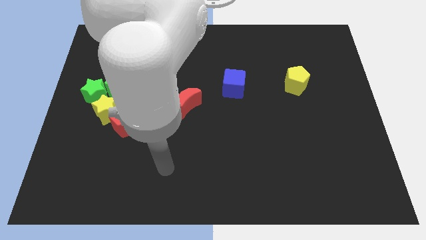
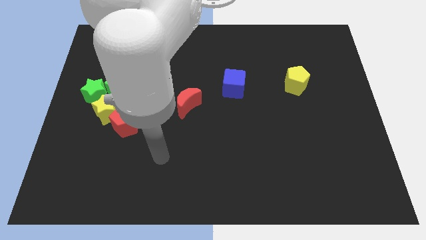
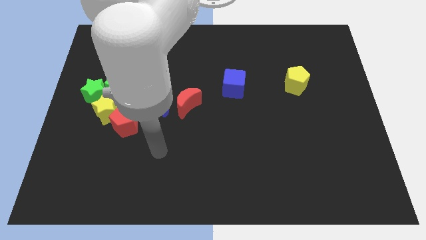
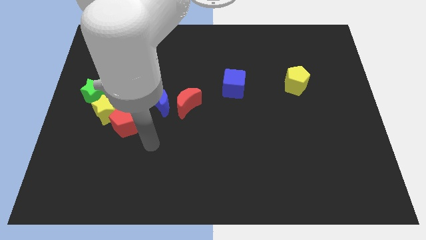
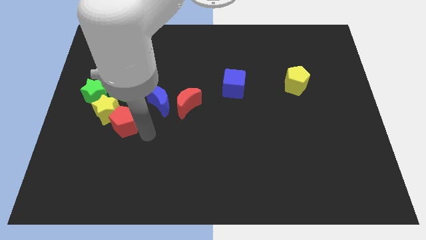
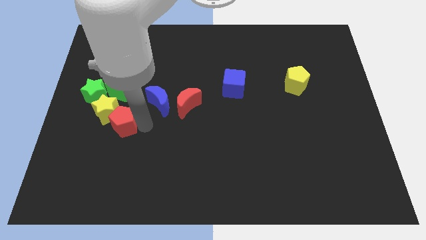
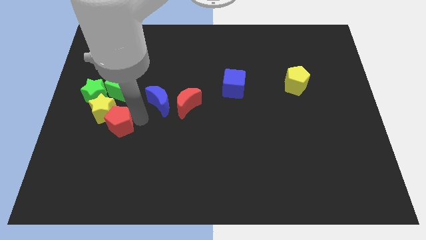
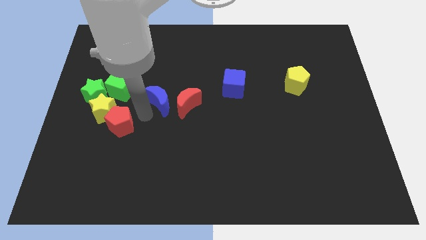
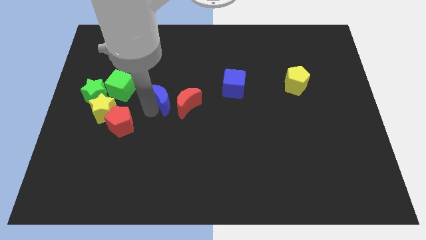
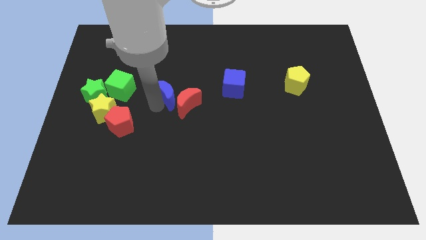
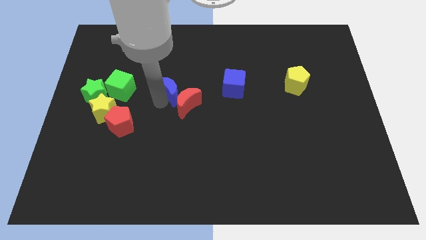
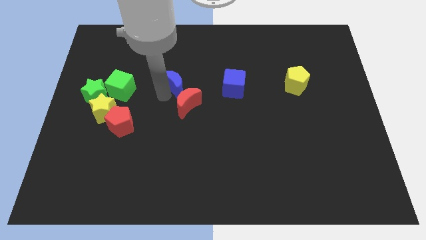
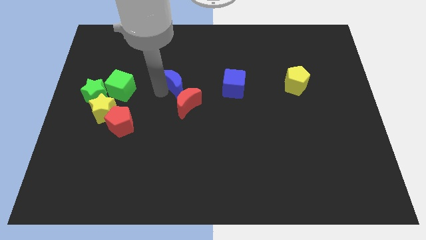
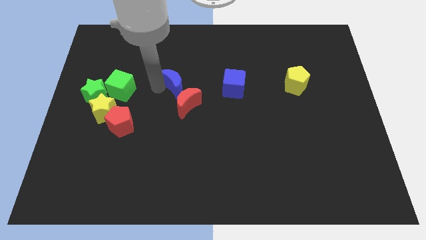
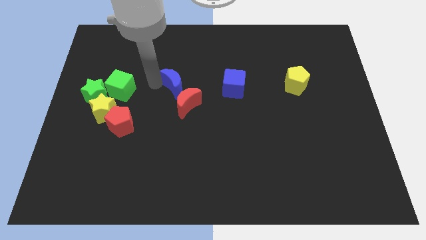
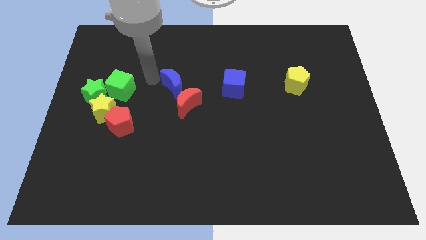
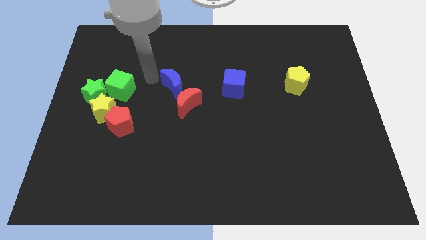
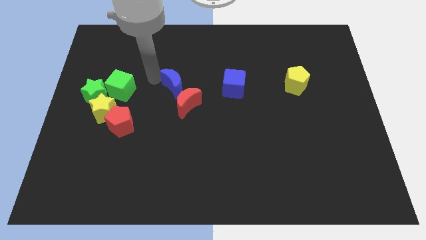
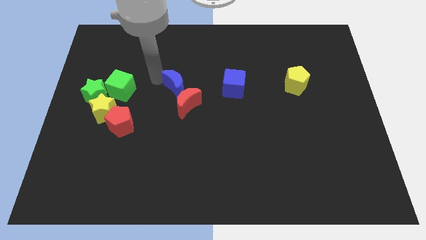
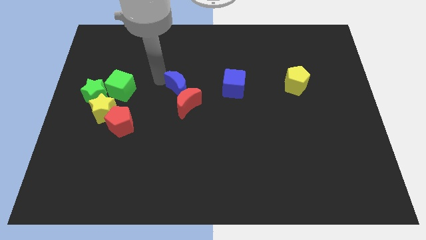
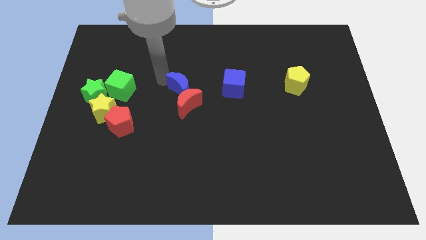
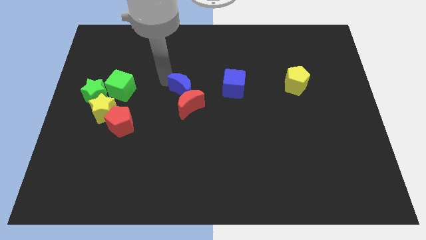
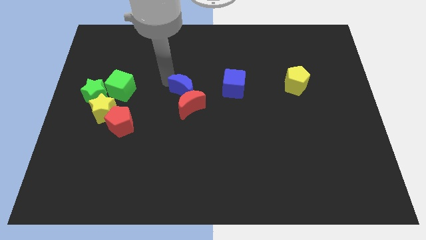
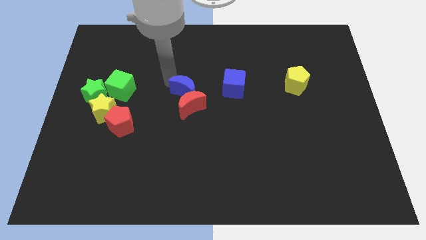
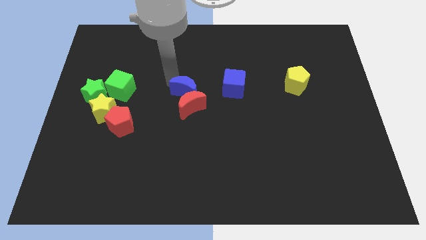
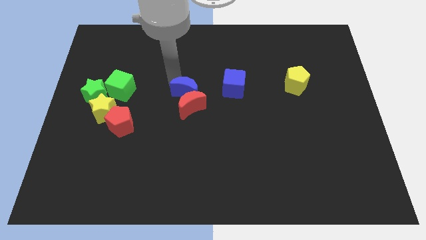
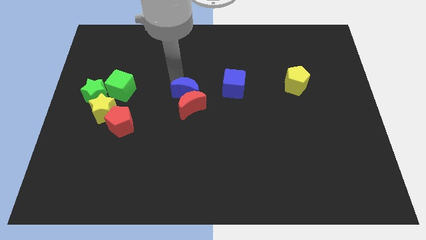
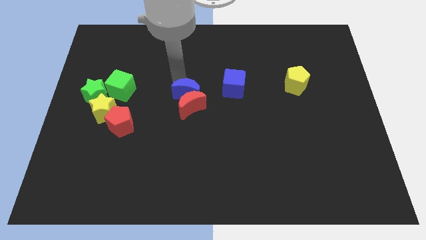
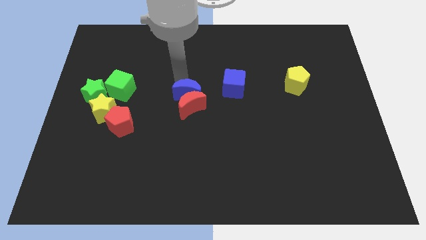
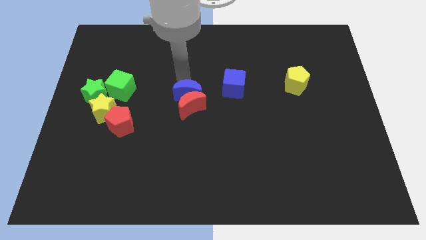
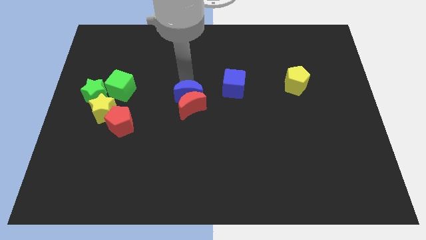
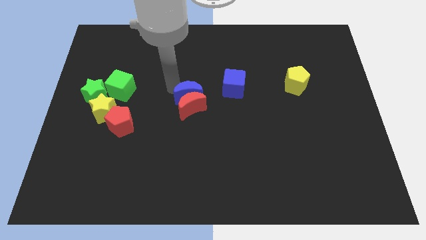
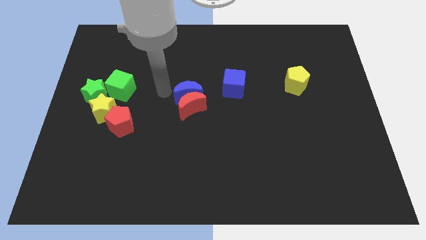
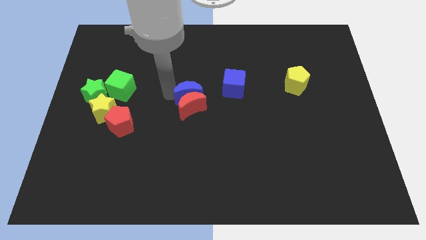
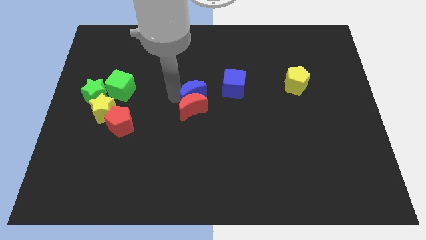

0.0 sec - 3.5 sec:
push the blue moon right a bit

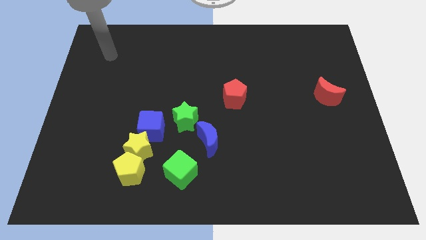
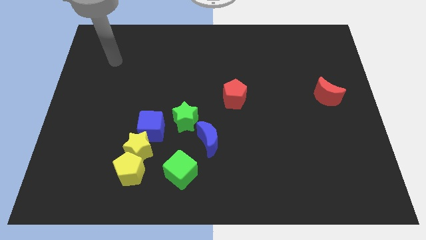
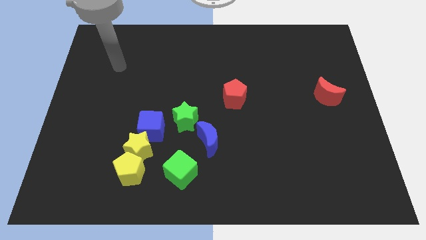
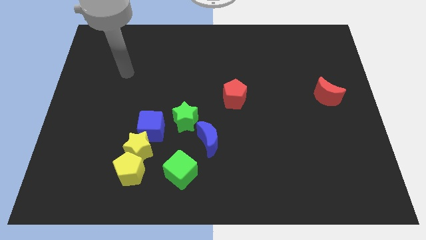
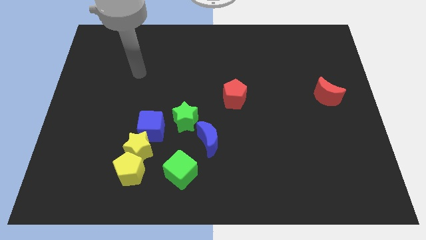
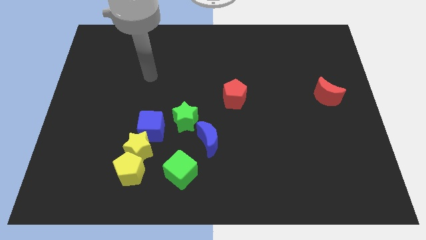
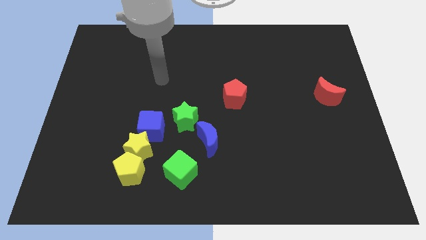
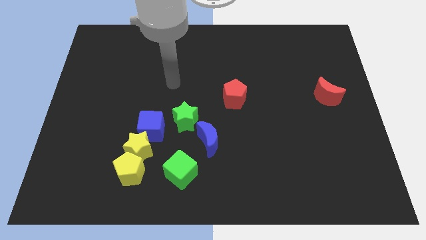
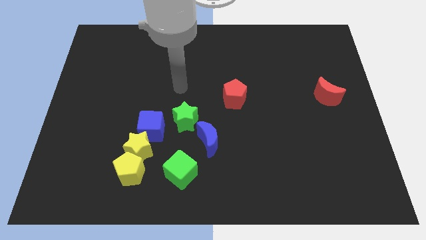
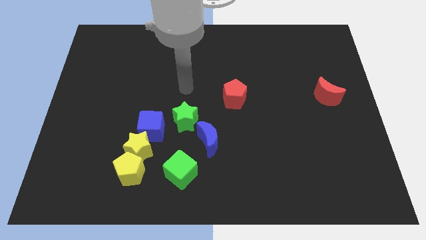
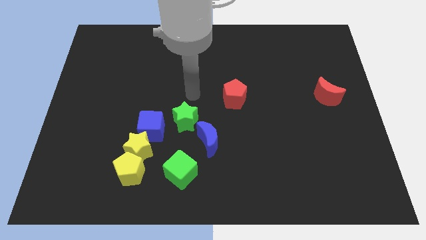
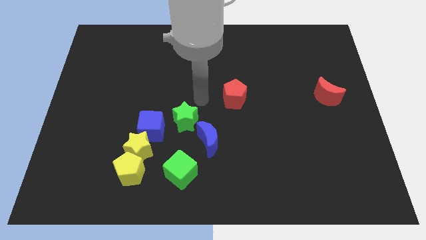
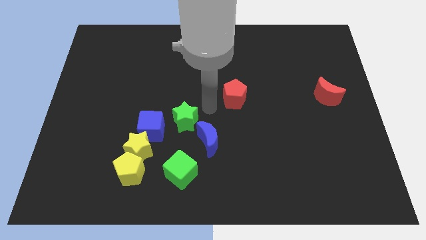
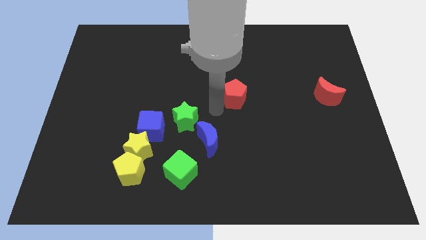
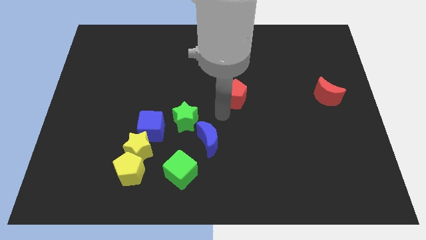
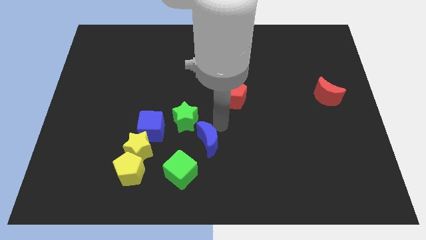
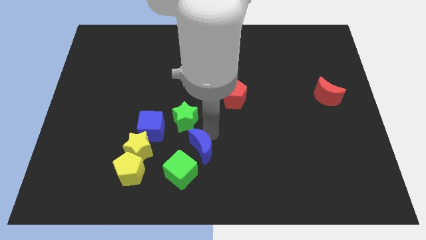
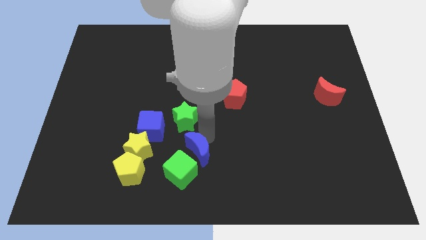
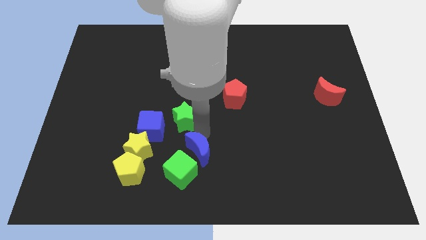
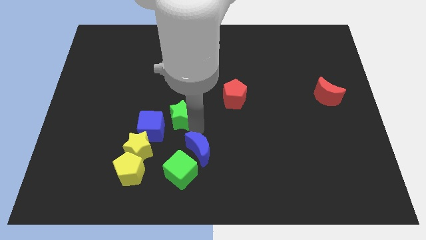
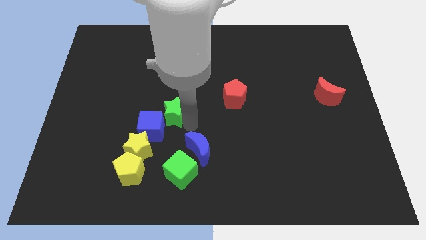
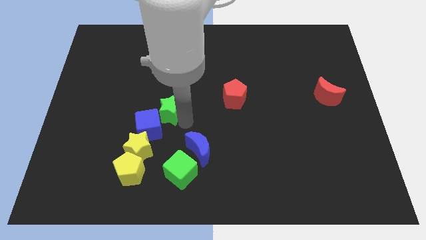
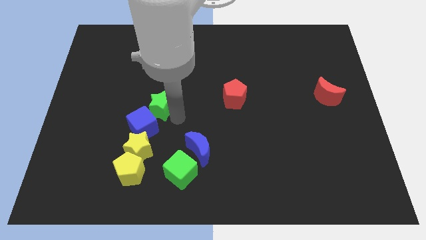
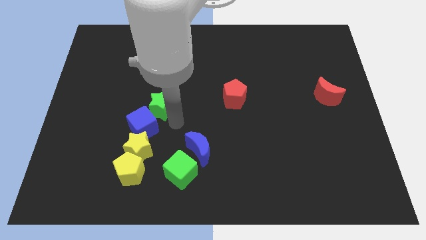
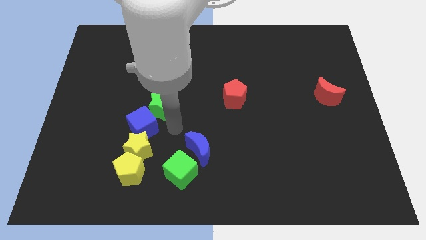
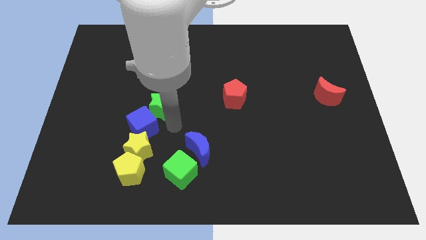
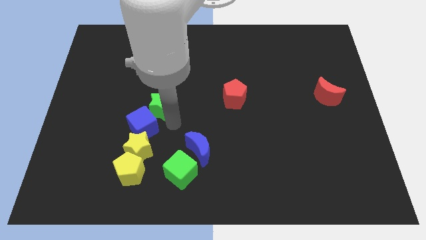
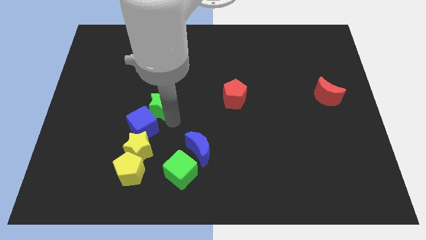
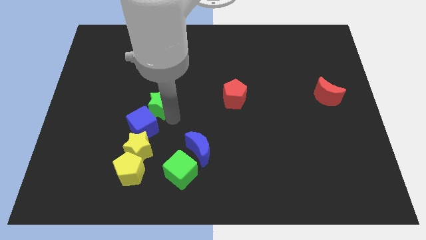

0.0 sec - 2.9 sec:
push the green star up and then left somewhat

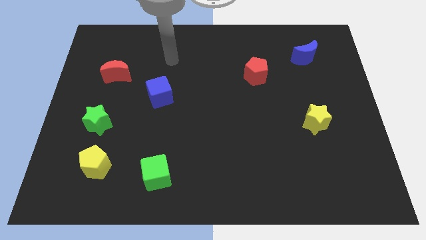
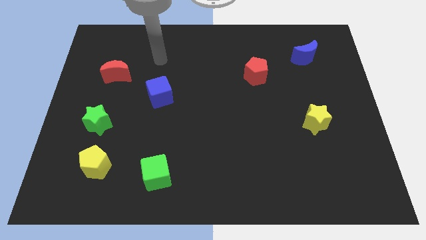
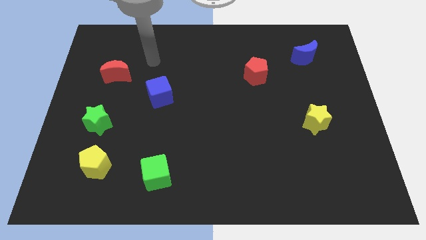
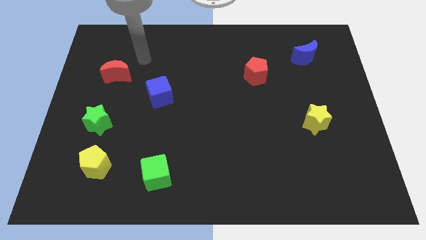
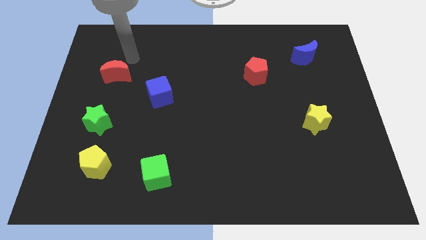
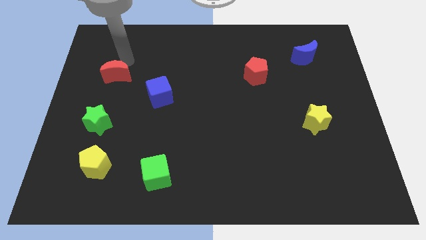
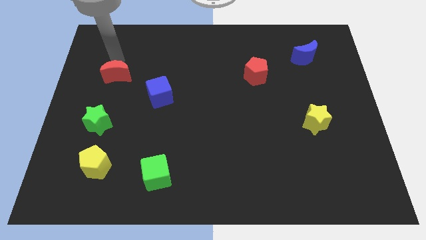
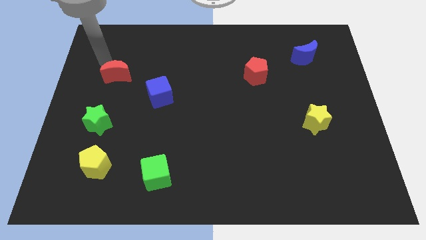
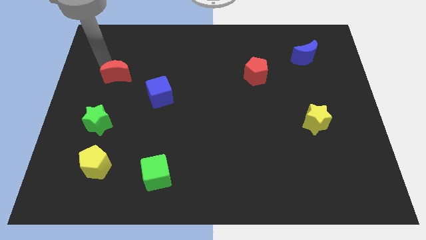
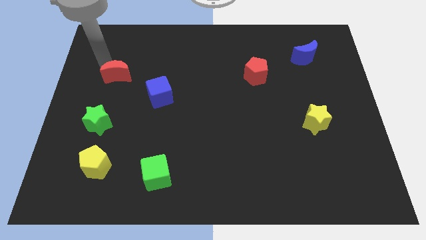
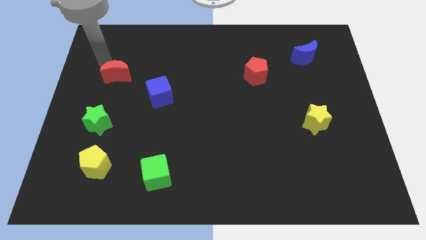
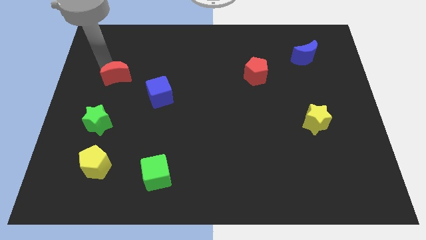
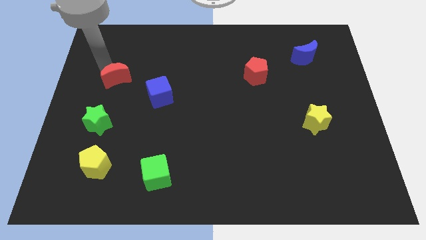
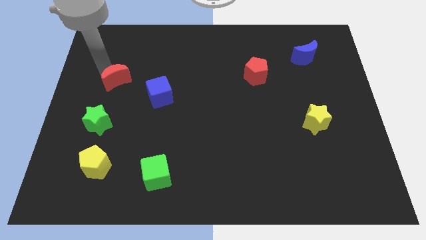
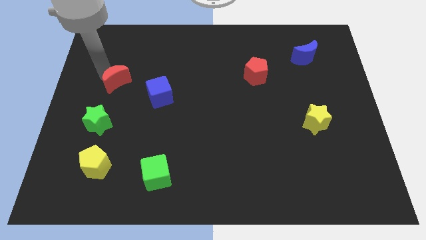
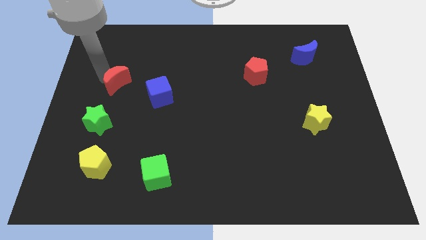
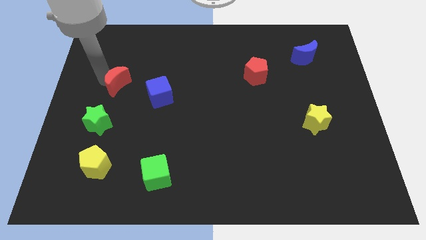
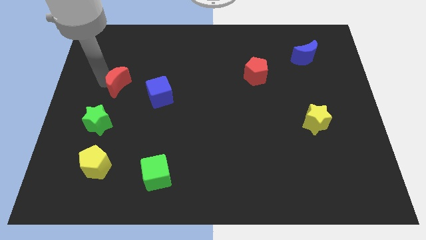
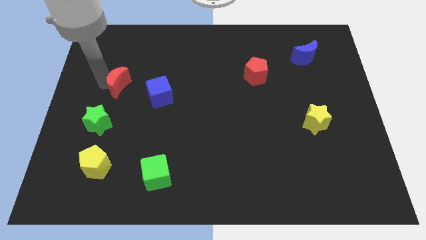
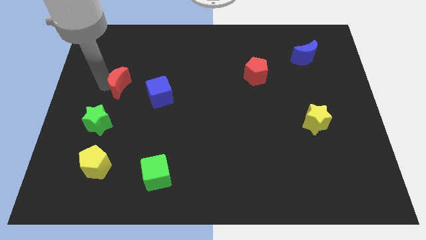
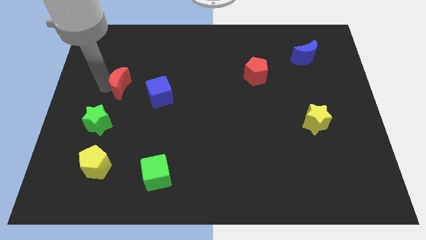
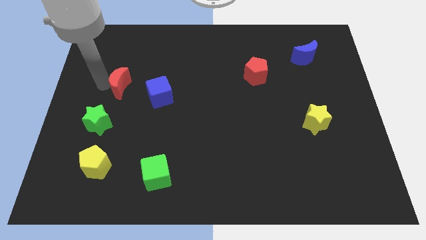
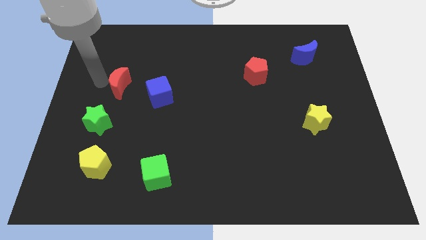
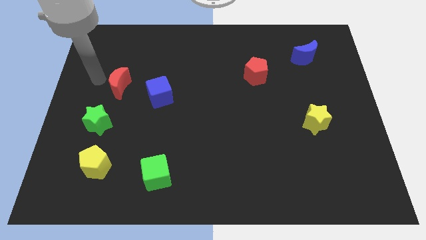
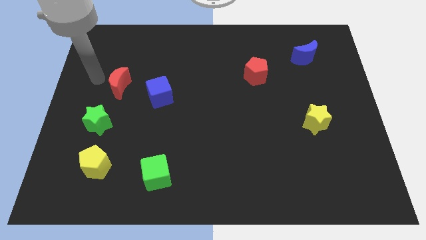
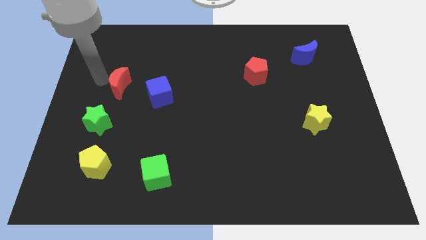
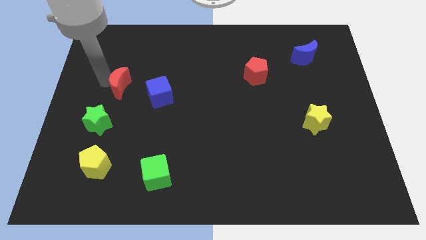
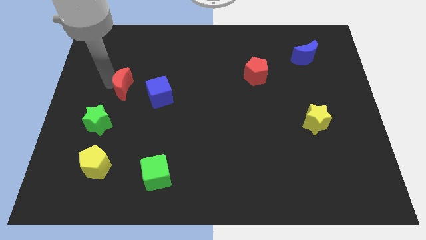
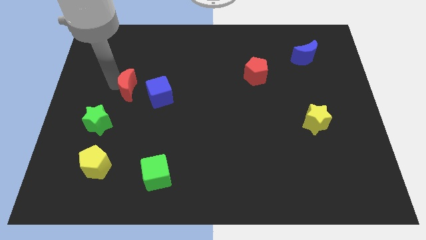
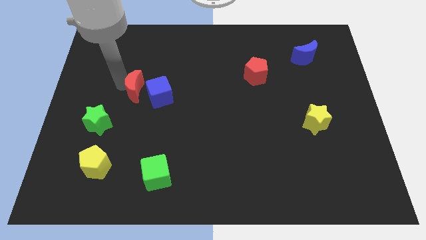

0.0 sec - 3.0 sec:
slightly push the red moon downwards and to the right
